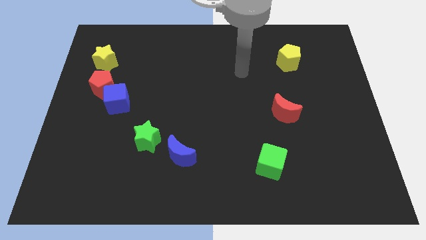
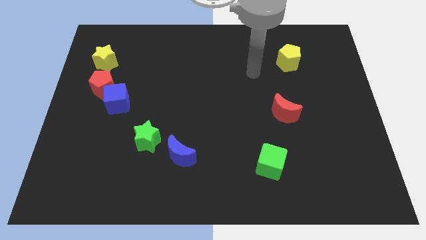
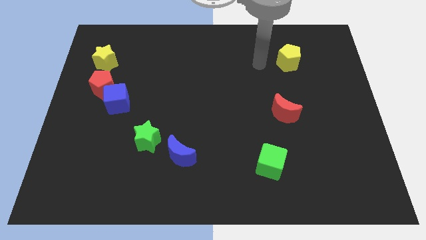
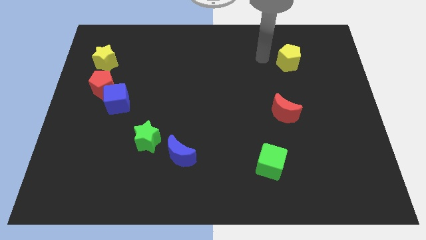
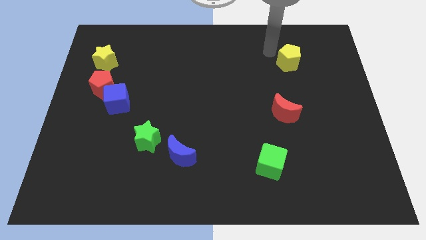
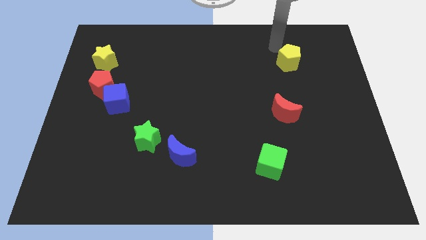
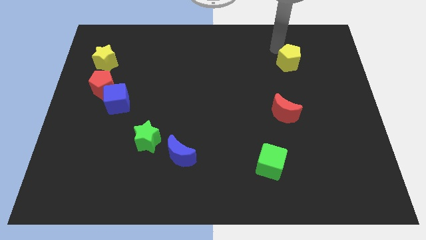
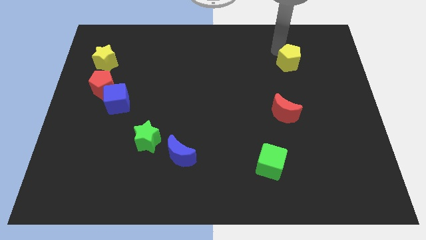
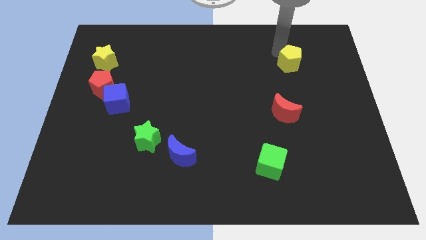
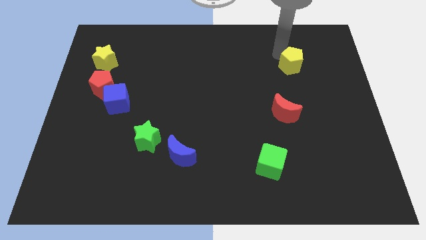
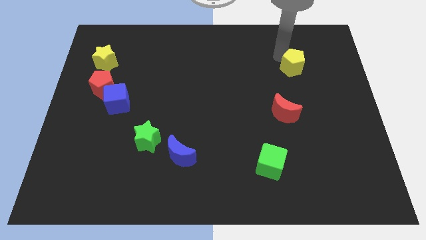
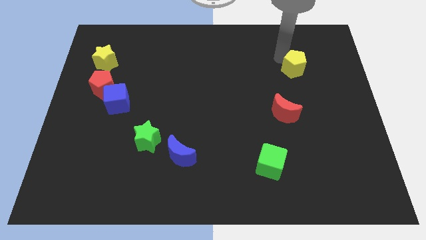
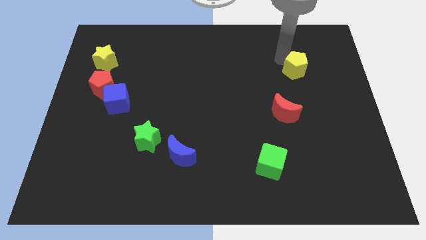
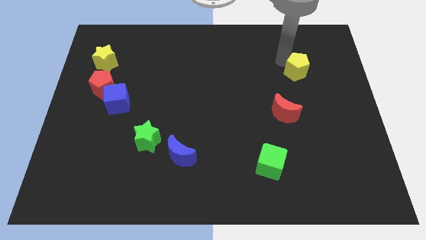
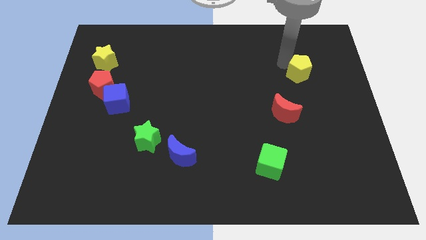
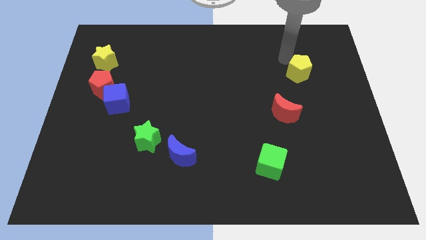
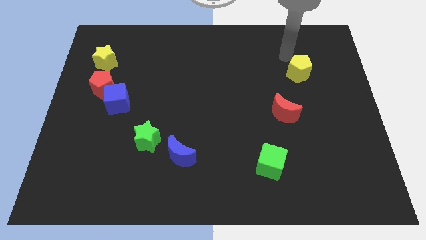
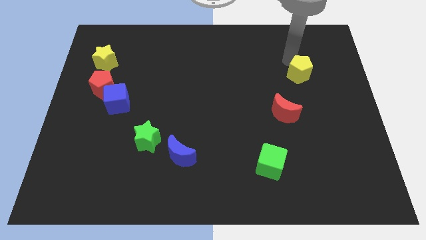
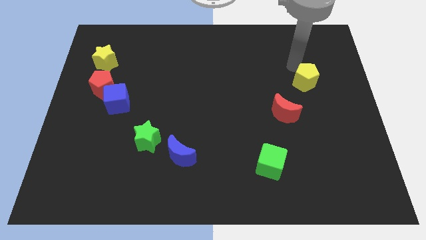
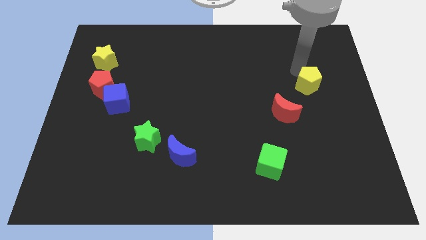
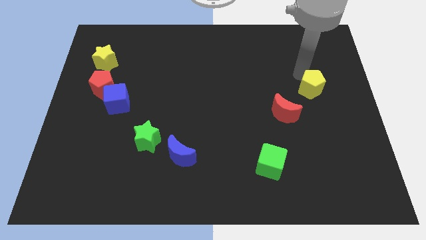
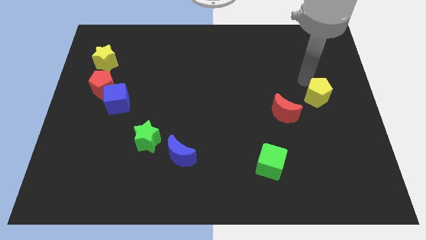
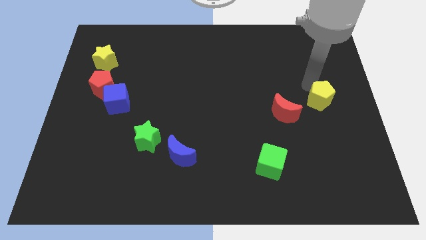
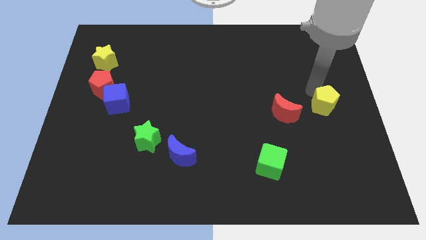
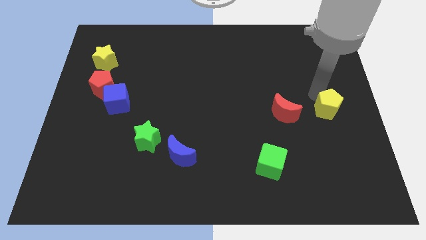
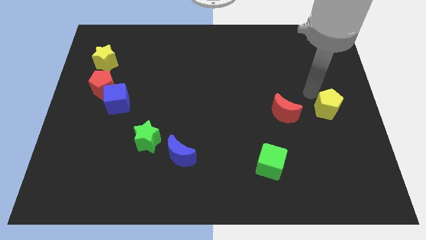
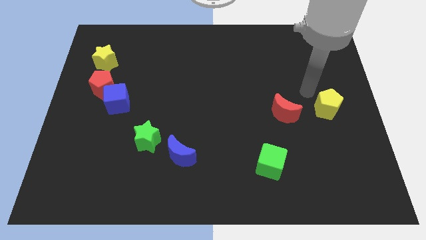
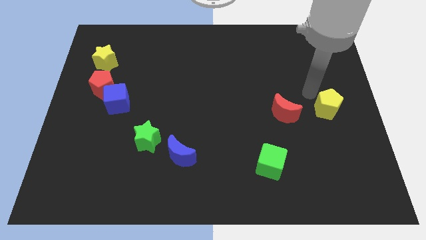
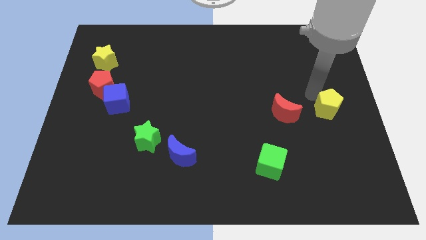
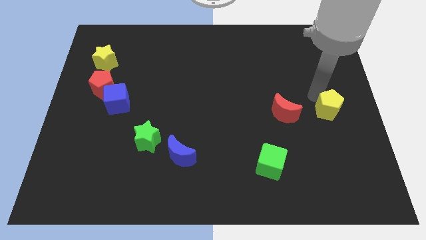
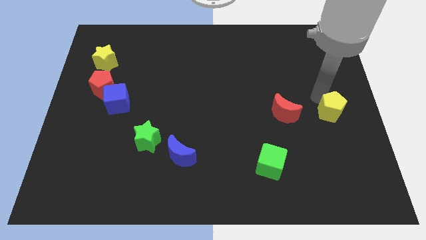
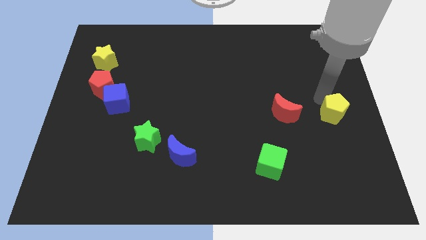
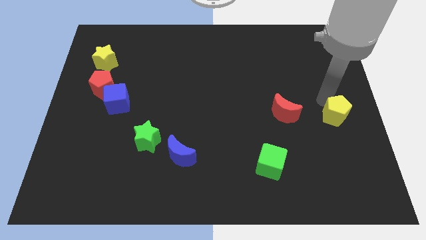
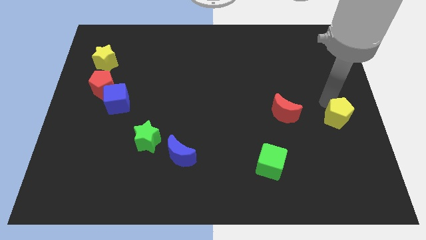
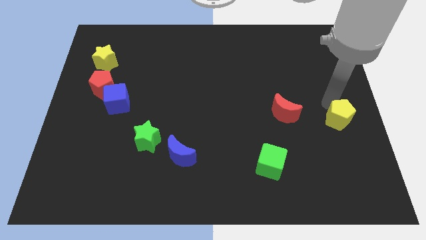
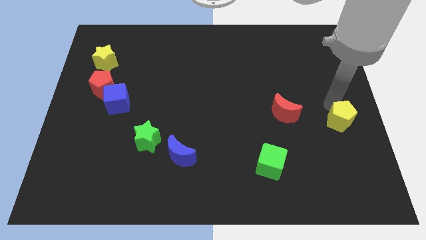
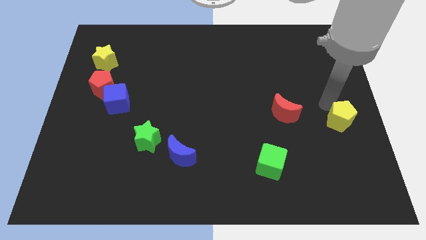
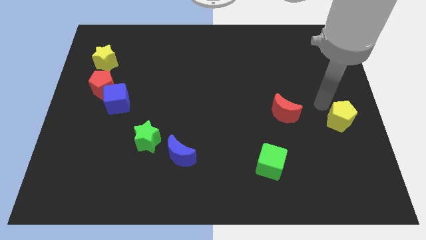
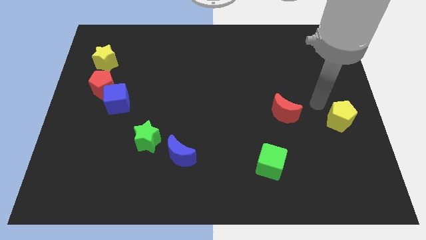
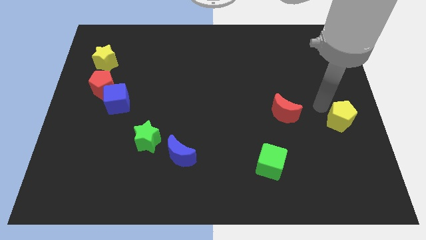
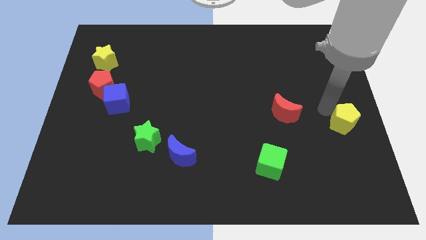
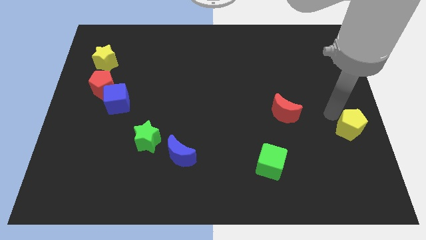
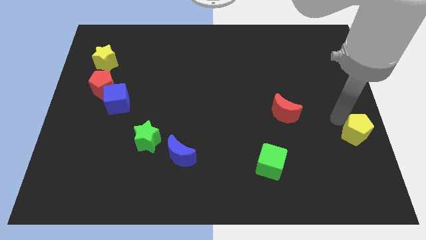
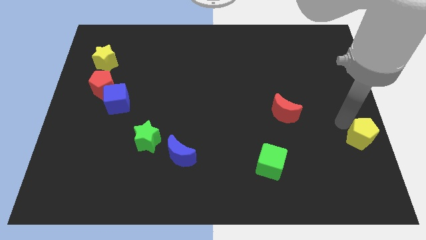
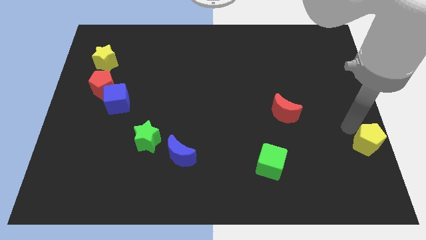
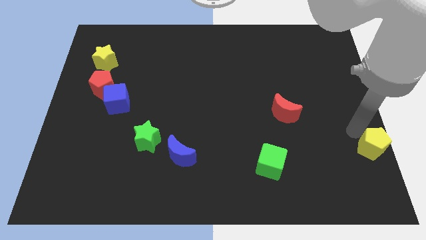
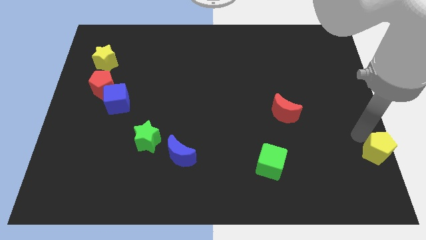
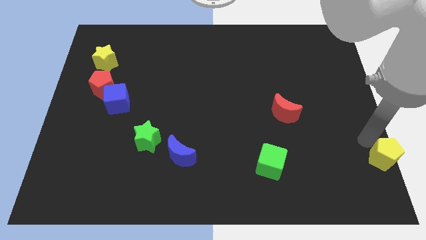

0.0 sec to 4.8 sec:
slide the yellow pentagon to the lower right corner

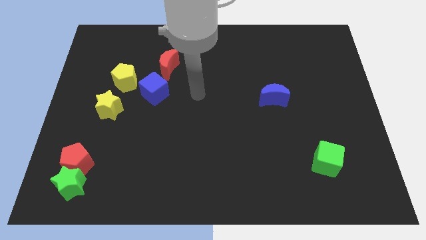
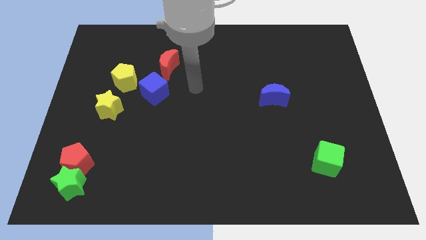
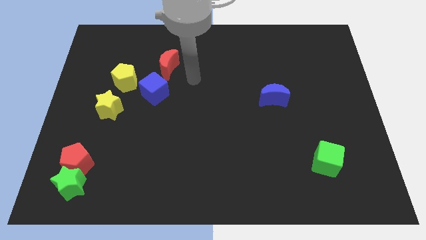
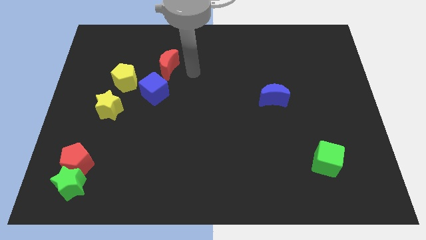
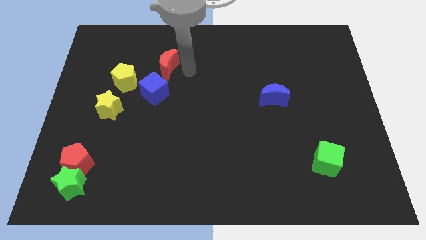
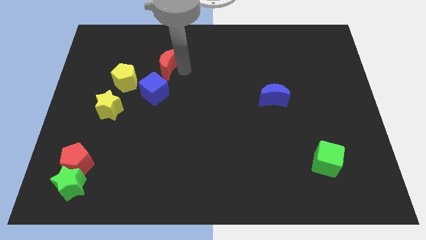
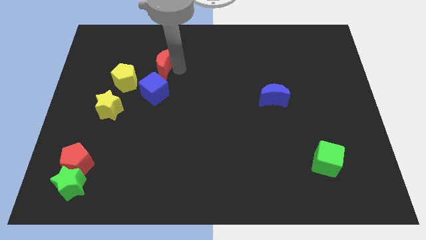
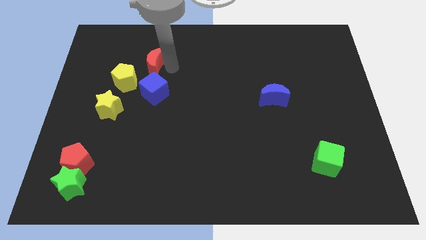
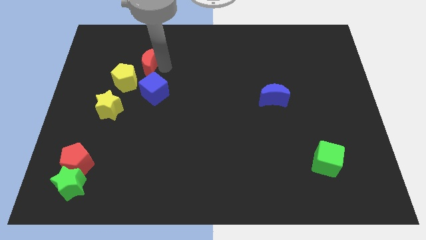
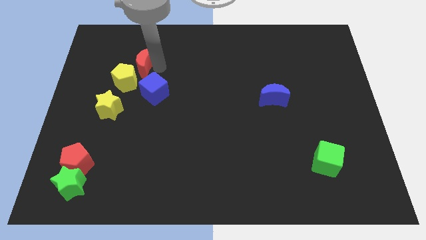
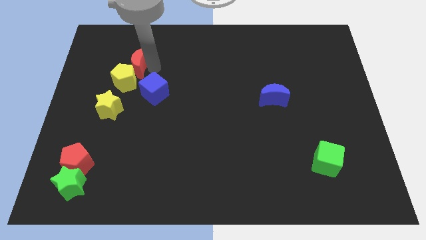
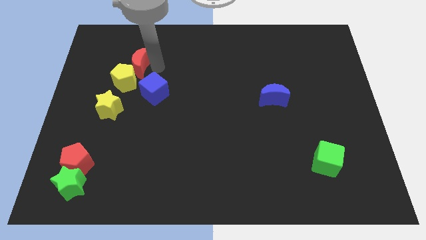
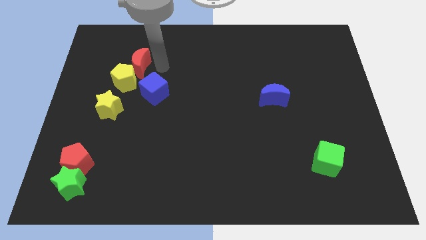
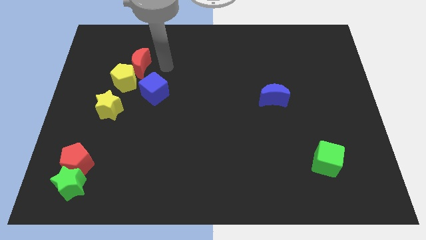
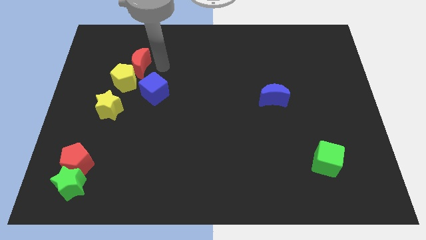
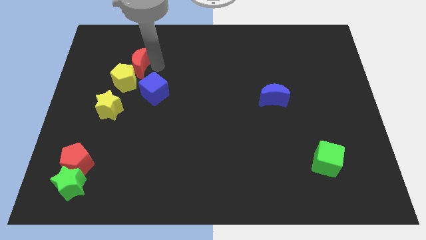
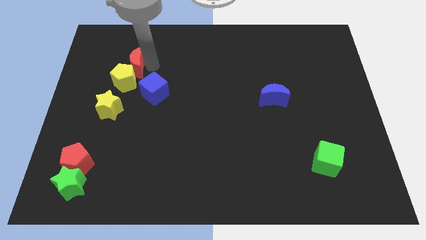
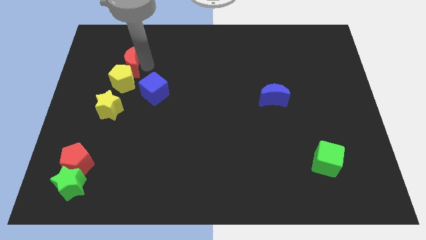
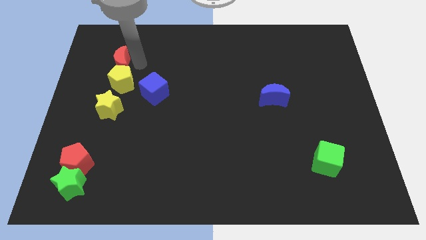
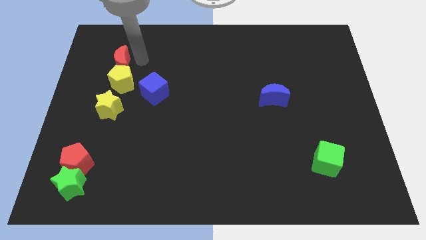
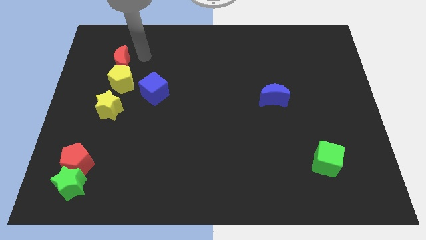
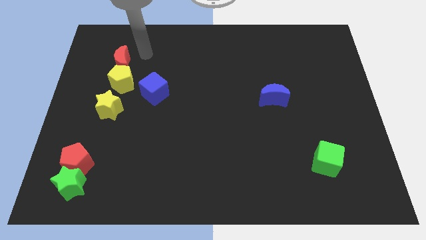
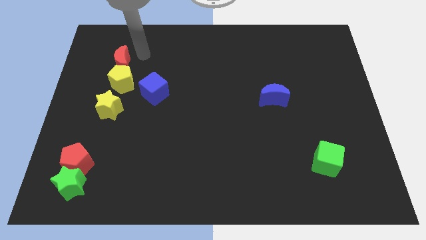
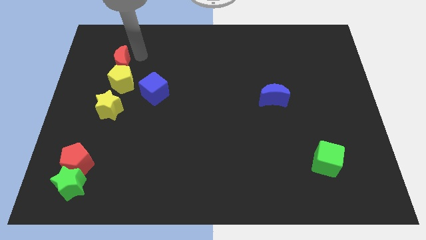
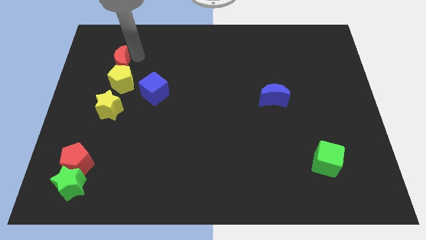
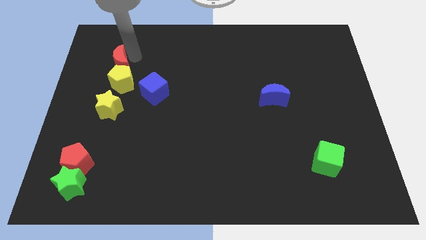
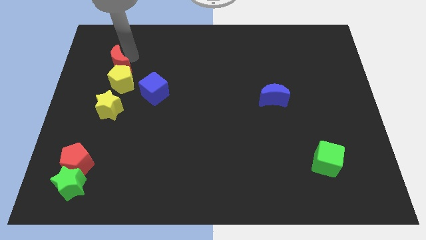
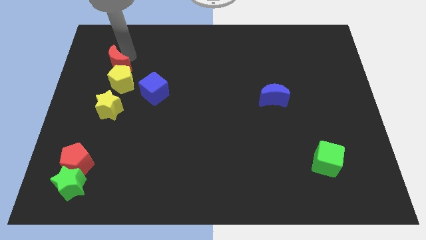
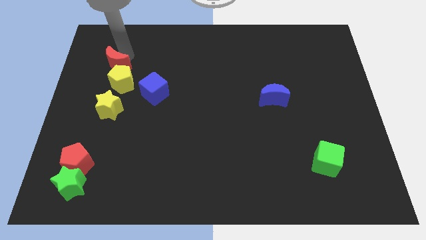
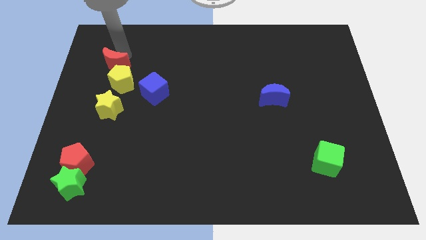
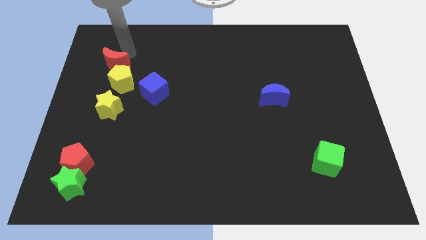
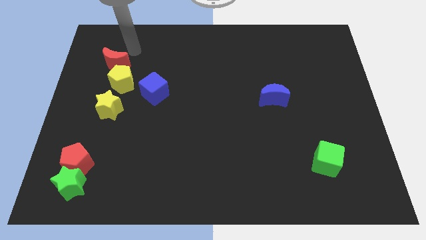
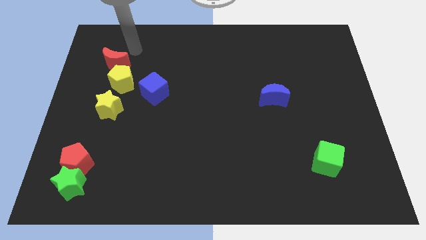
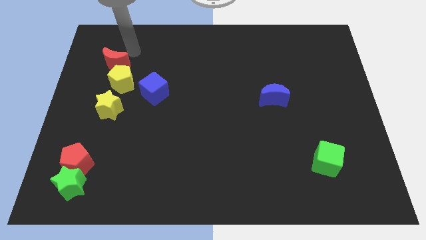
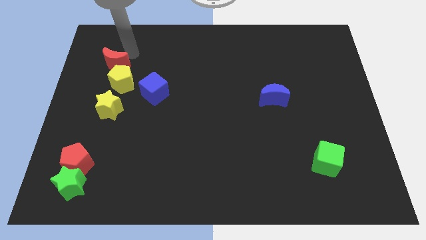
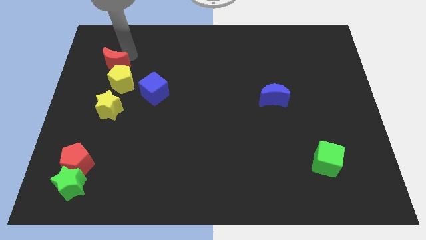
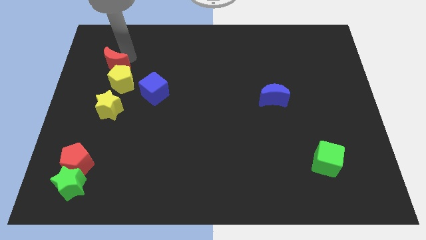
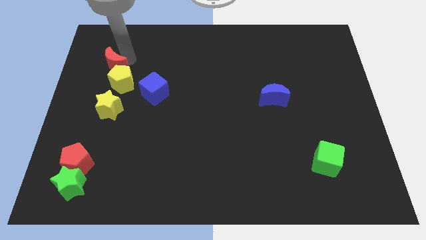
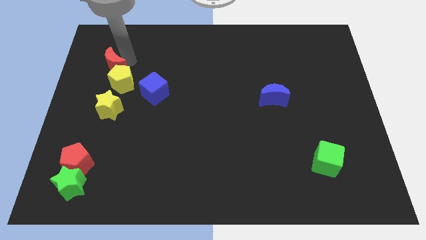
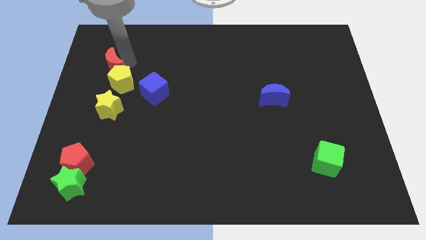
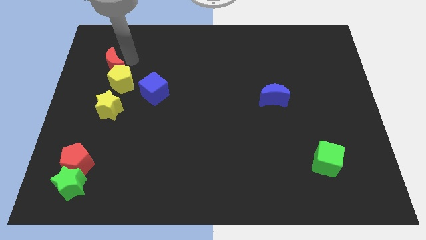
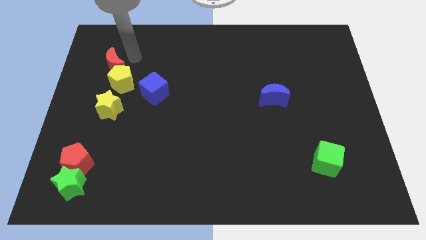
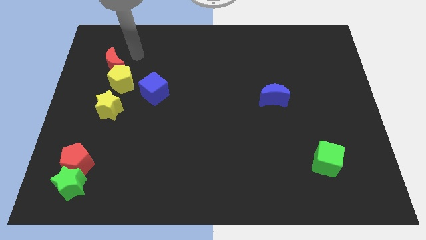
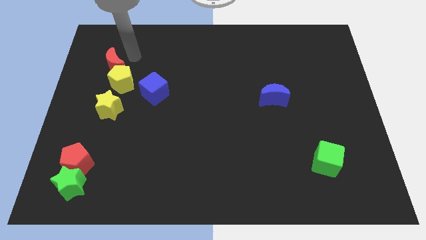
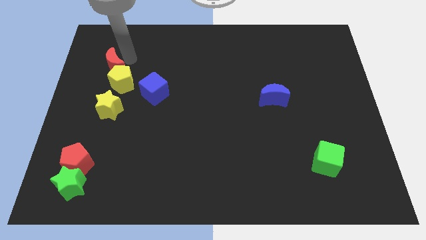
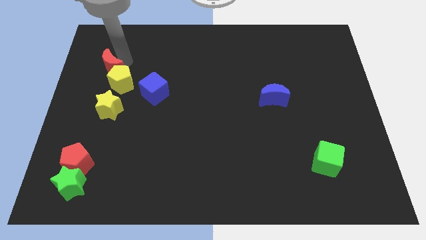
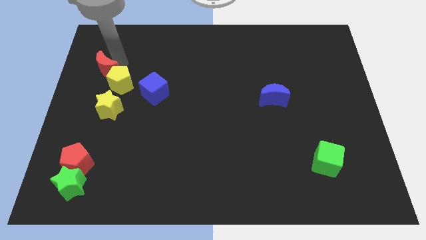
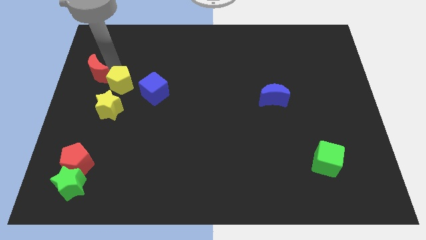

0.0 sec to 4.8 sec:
push the red moon to the center left
